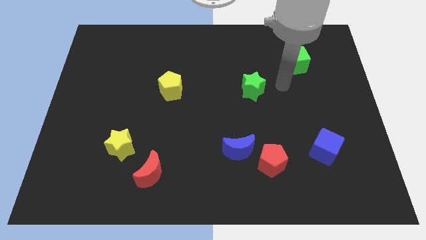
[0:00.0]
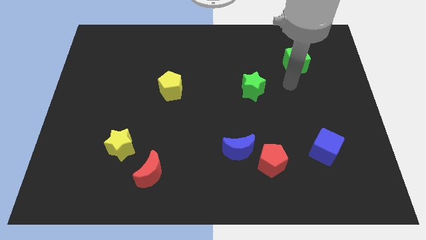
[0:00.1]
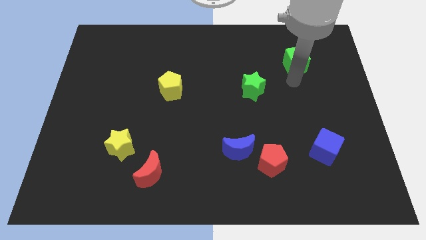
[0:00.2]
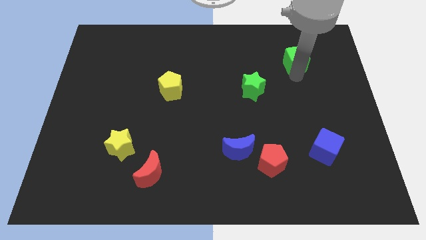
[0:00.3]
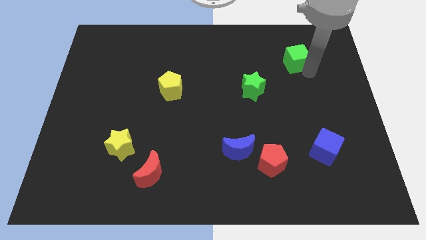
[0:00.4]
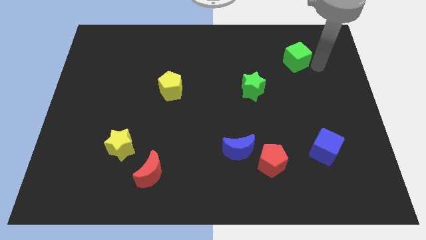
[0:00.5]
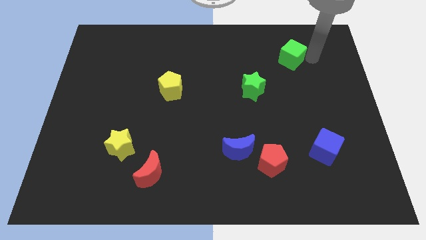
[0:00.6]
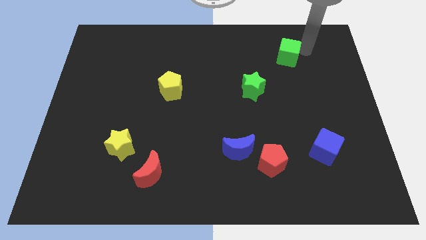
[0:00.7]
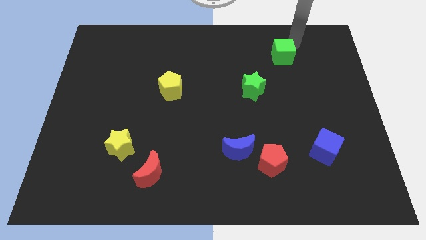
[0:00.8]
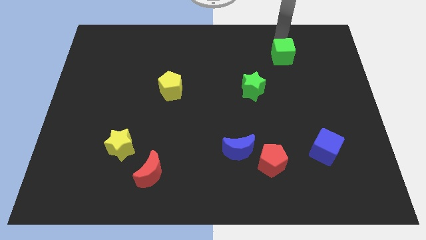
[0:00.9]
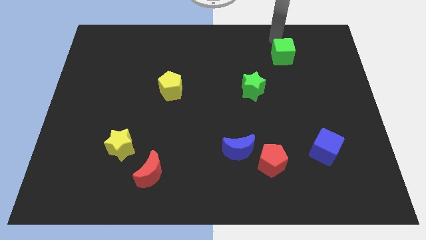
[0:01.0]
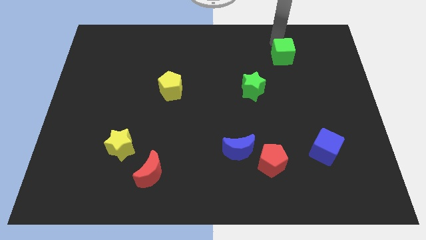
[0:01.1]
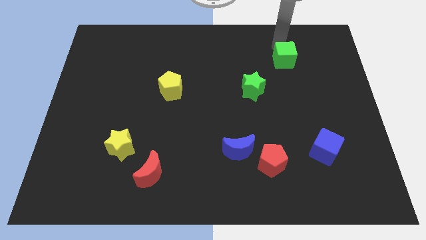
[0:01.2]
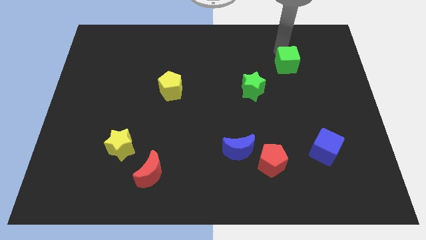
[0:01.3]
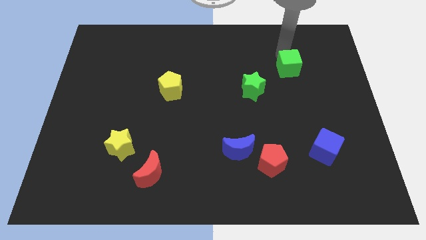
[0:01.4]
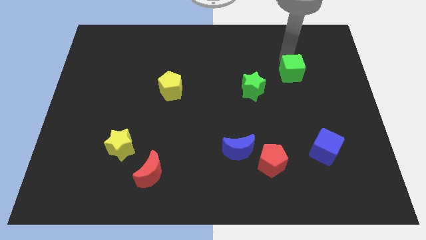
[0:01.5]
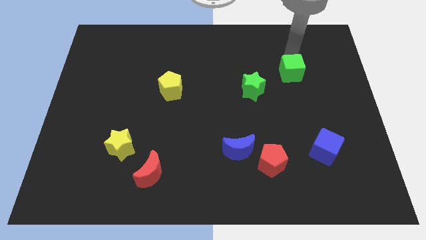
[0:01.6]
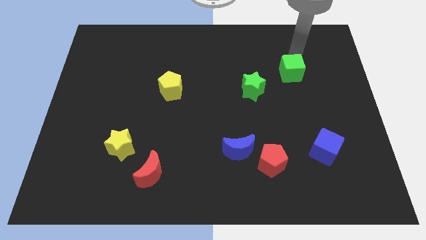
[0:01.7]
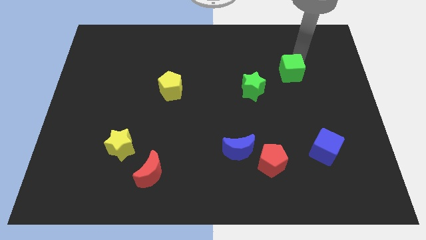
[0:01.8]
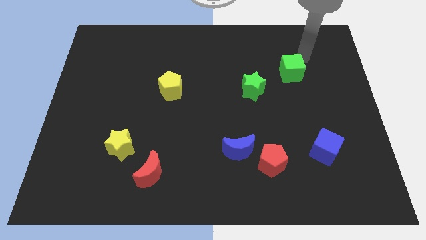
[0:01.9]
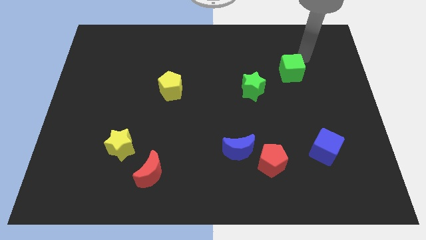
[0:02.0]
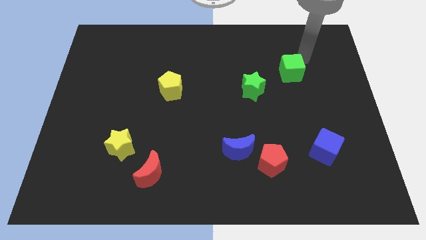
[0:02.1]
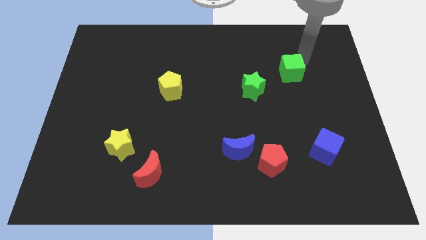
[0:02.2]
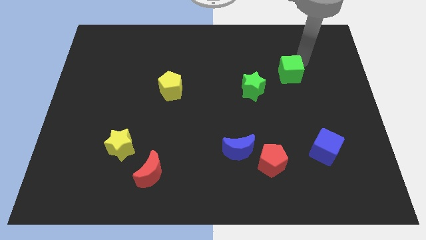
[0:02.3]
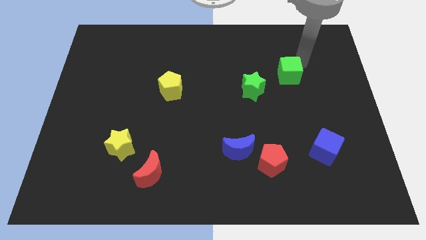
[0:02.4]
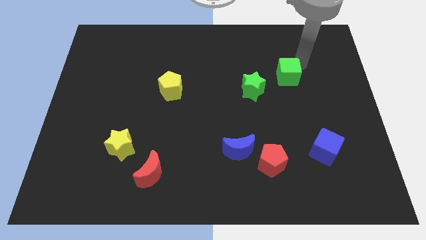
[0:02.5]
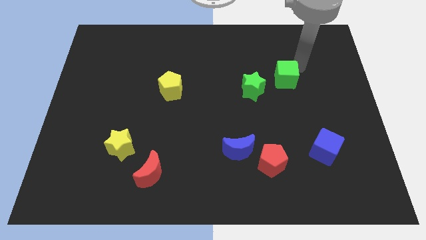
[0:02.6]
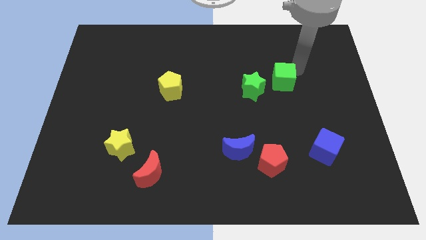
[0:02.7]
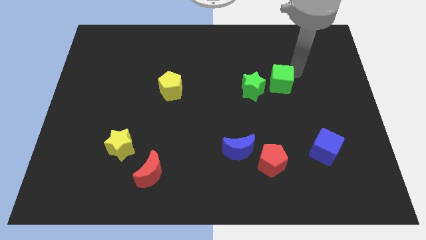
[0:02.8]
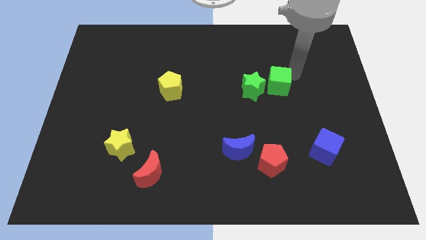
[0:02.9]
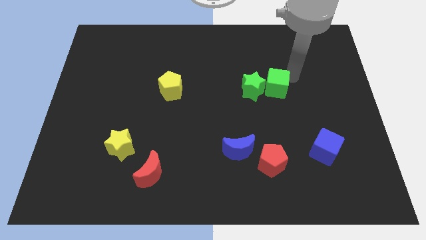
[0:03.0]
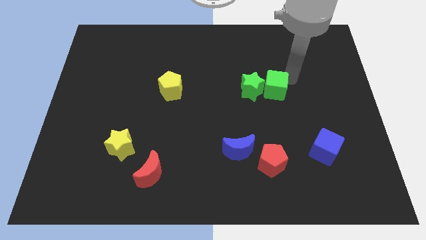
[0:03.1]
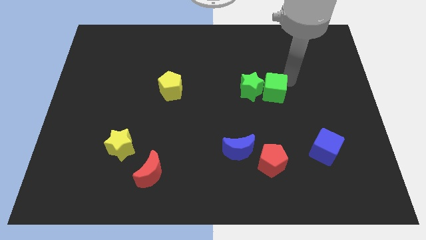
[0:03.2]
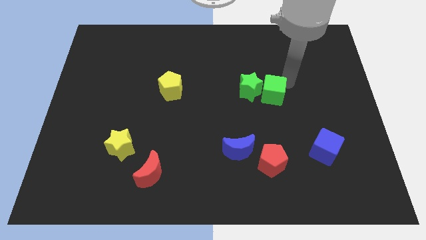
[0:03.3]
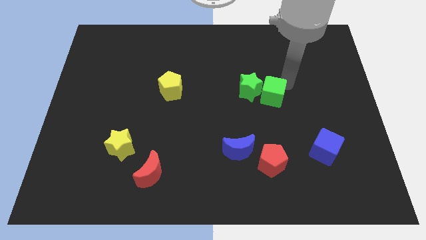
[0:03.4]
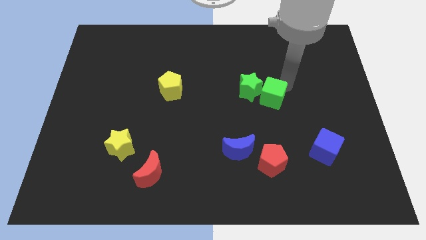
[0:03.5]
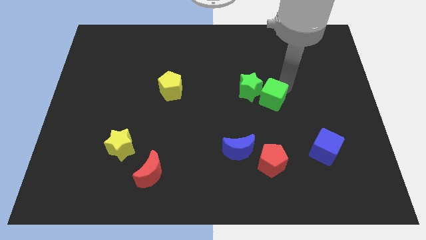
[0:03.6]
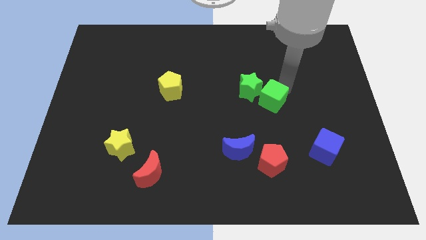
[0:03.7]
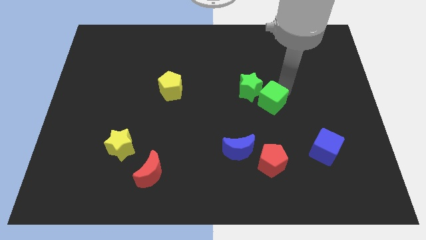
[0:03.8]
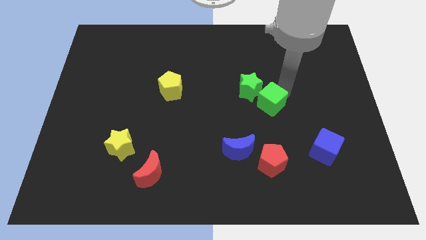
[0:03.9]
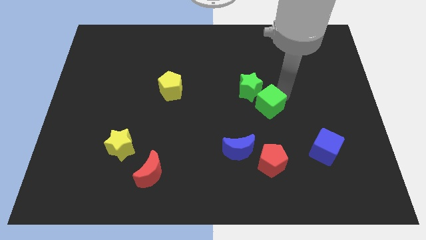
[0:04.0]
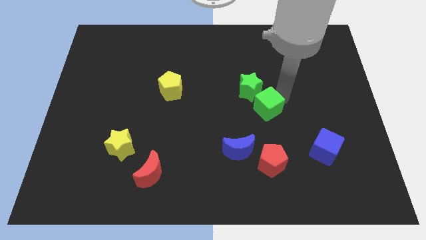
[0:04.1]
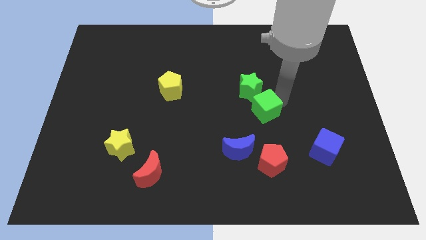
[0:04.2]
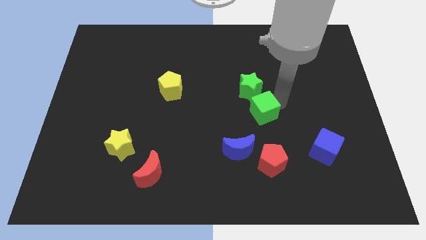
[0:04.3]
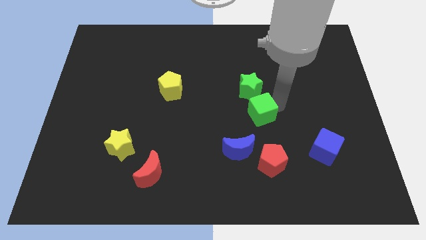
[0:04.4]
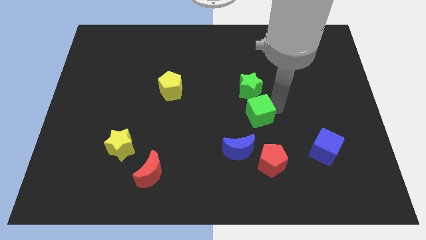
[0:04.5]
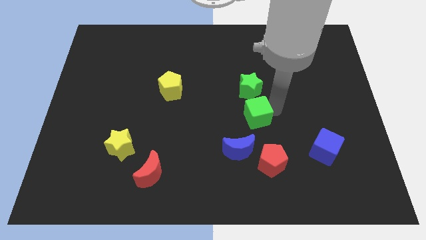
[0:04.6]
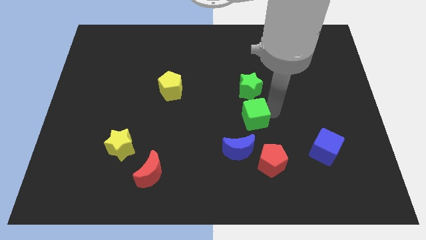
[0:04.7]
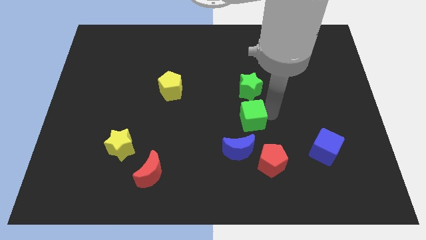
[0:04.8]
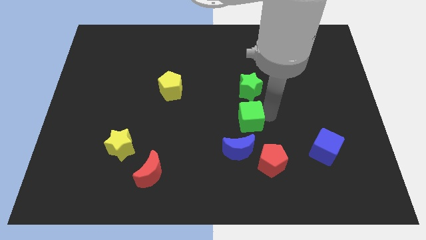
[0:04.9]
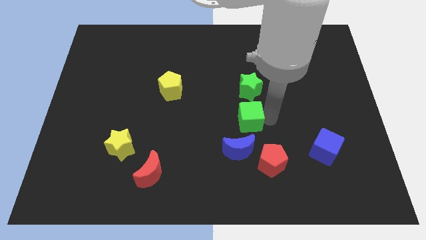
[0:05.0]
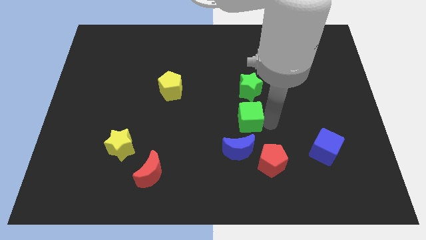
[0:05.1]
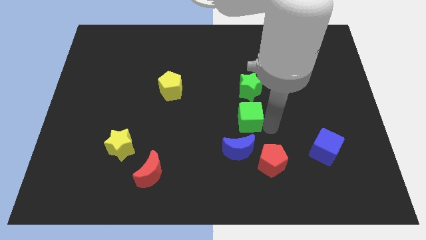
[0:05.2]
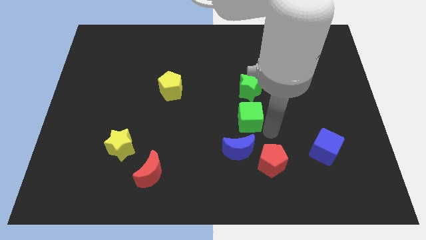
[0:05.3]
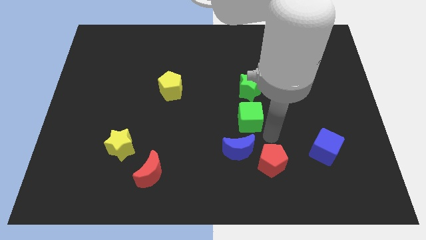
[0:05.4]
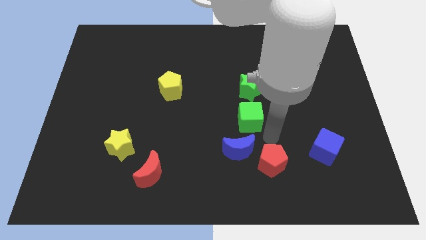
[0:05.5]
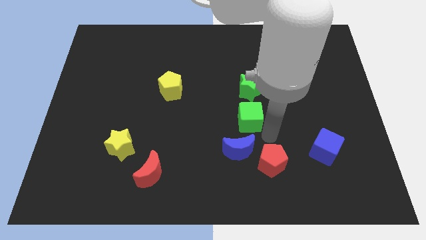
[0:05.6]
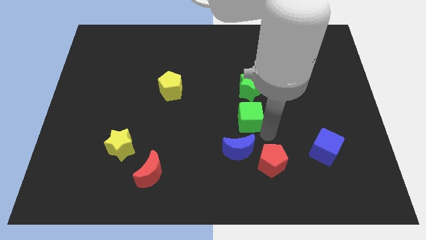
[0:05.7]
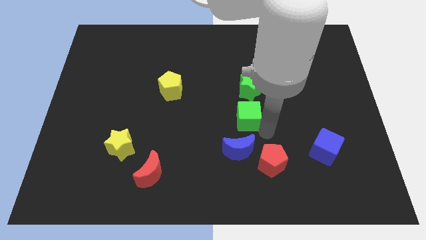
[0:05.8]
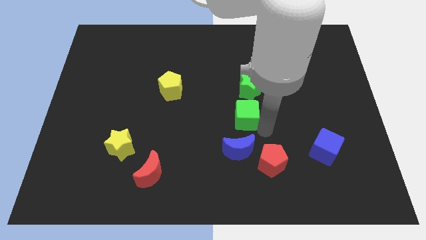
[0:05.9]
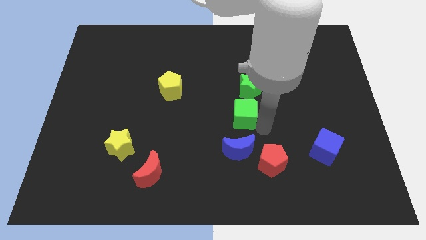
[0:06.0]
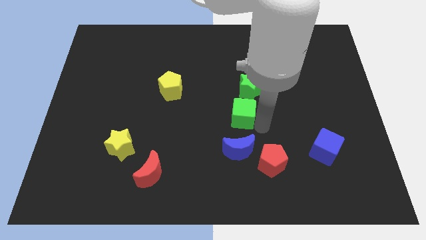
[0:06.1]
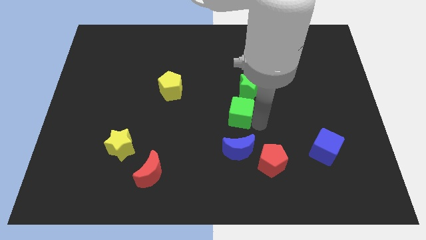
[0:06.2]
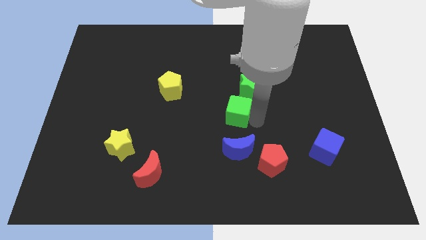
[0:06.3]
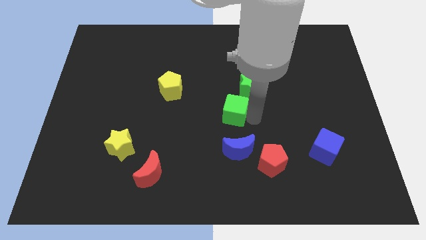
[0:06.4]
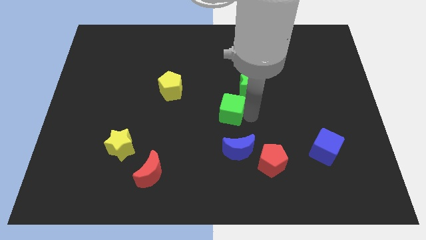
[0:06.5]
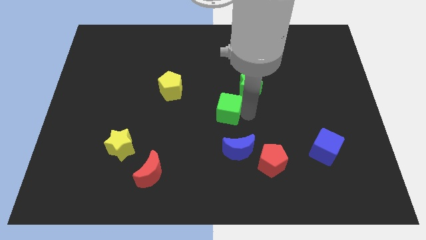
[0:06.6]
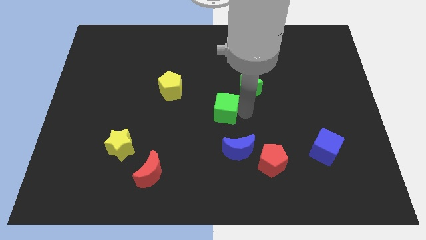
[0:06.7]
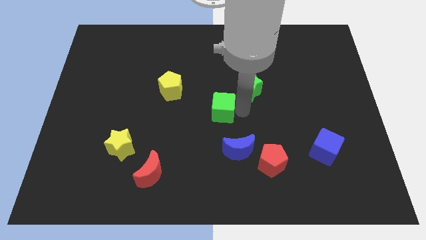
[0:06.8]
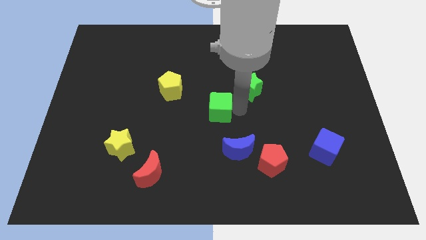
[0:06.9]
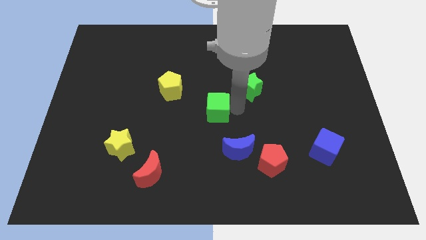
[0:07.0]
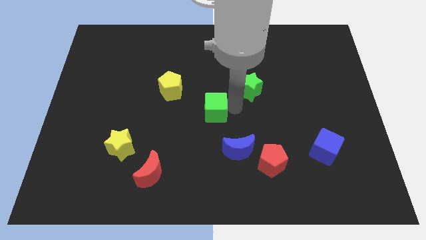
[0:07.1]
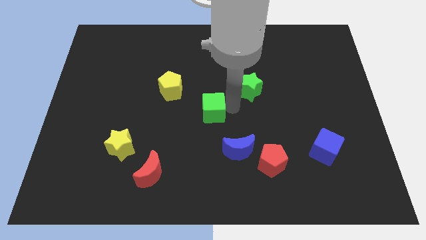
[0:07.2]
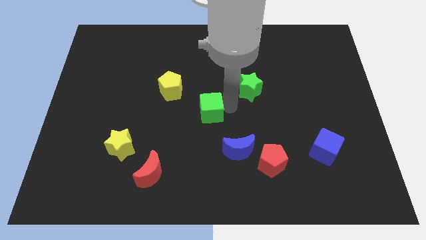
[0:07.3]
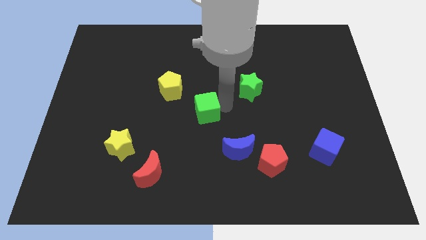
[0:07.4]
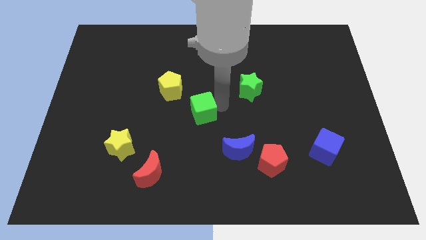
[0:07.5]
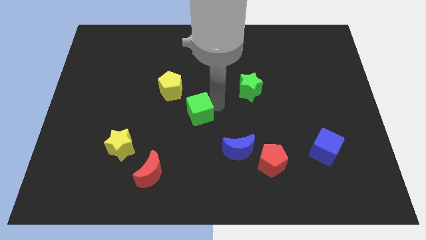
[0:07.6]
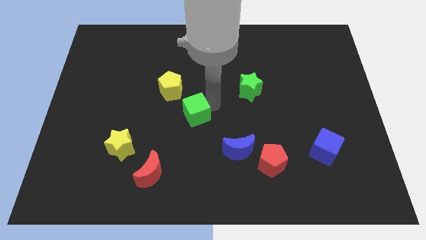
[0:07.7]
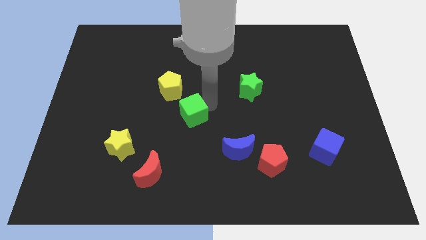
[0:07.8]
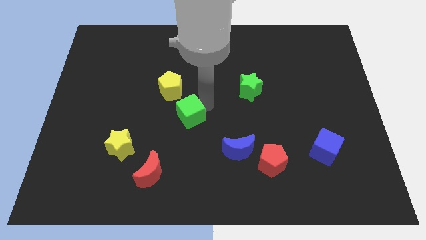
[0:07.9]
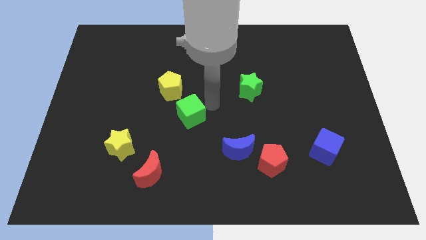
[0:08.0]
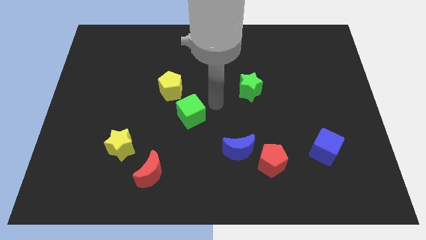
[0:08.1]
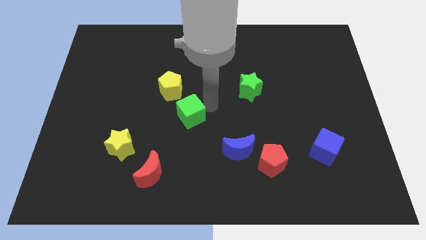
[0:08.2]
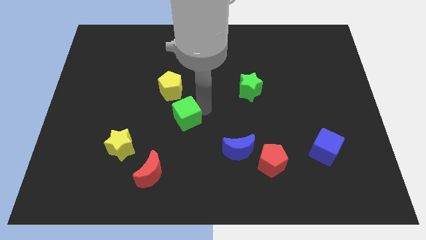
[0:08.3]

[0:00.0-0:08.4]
put the green cube to the bottom side of the yellow pentagon
